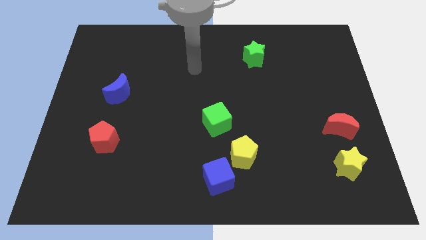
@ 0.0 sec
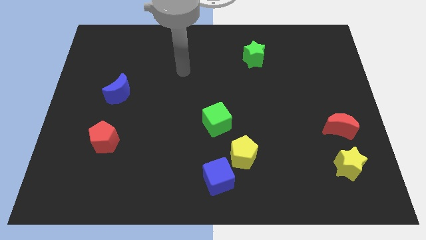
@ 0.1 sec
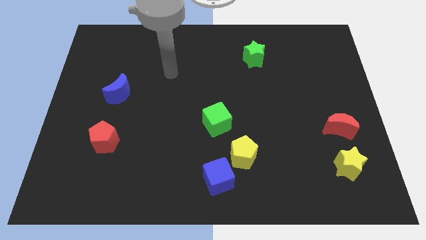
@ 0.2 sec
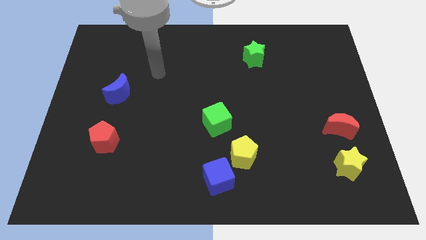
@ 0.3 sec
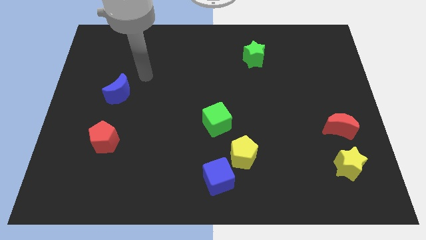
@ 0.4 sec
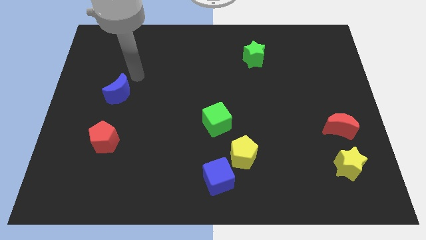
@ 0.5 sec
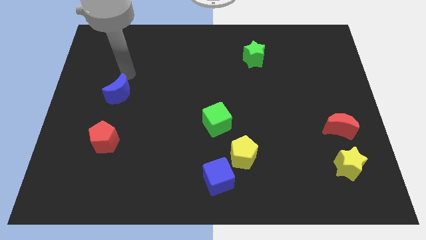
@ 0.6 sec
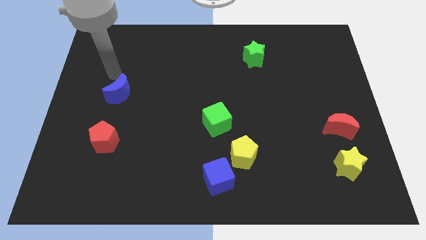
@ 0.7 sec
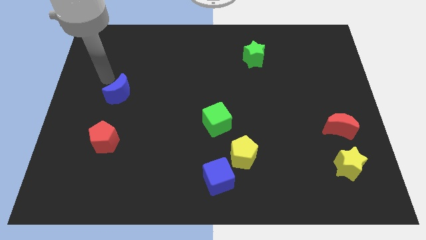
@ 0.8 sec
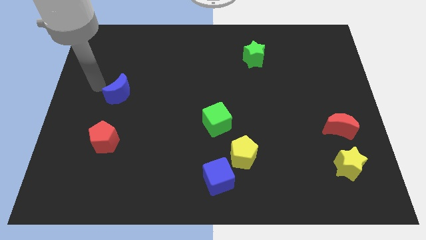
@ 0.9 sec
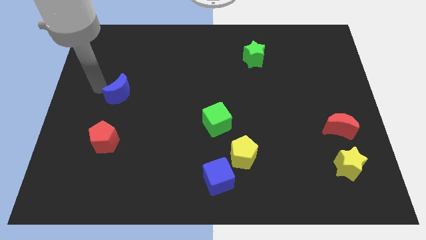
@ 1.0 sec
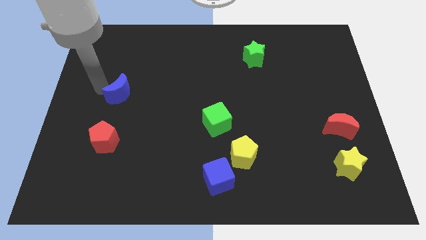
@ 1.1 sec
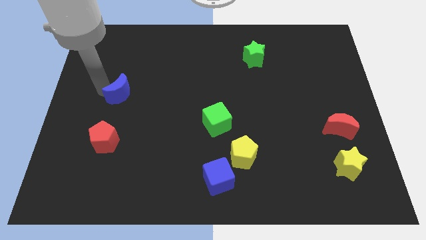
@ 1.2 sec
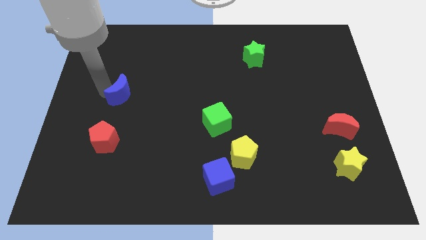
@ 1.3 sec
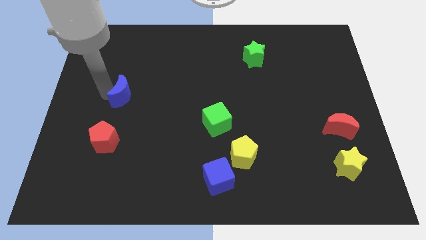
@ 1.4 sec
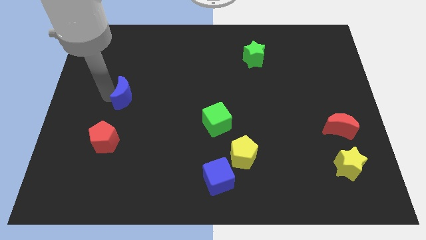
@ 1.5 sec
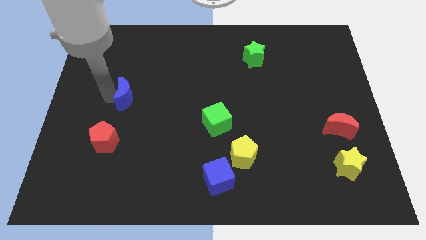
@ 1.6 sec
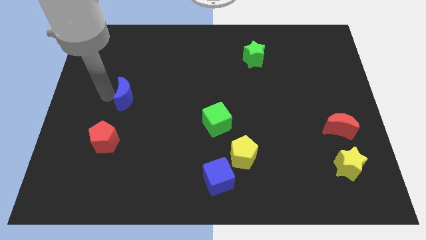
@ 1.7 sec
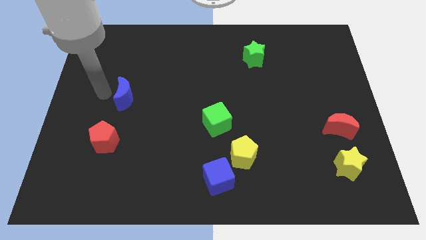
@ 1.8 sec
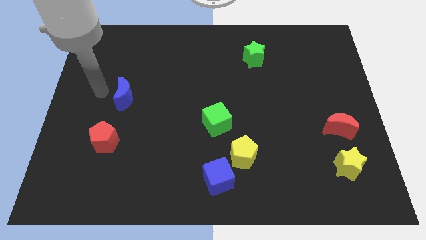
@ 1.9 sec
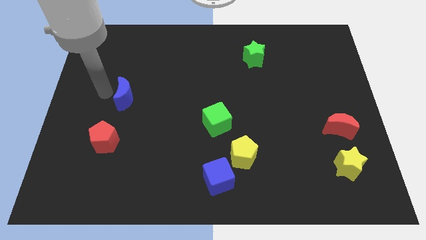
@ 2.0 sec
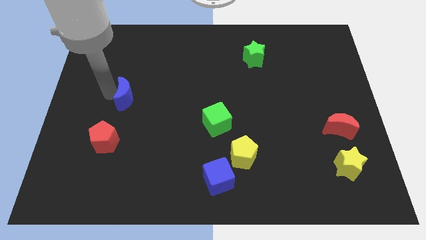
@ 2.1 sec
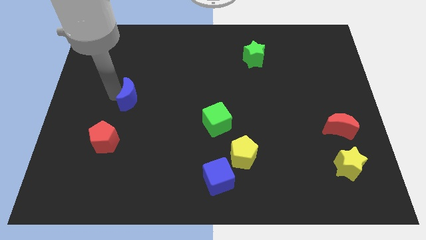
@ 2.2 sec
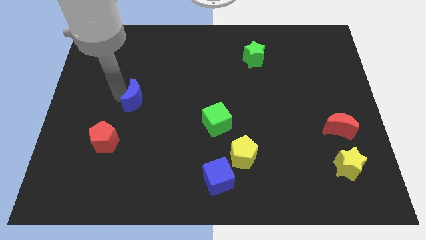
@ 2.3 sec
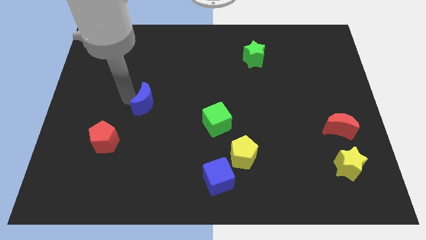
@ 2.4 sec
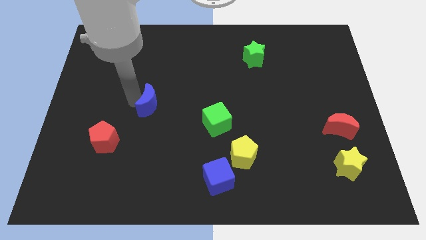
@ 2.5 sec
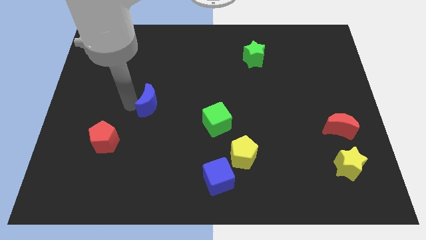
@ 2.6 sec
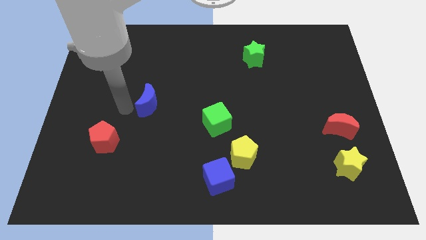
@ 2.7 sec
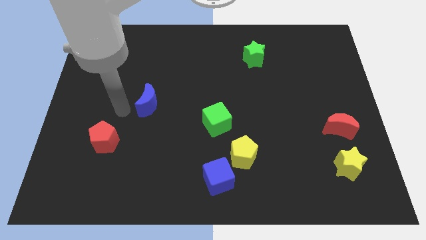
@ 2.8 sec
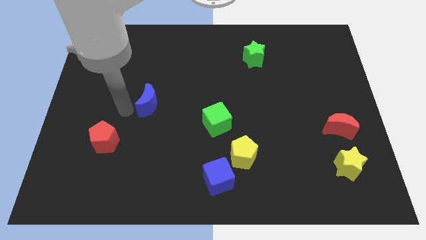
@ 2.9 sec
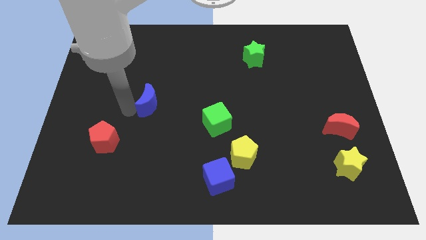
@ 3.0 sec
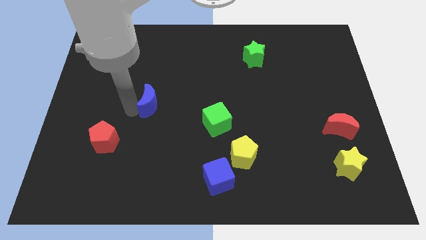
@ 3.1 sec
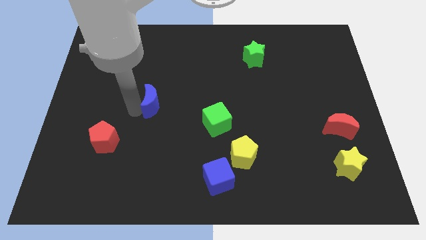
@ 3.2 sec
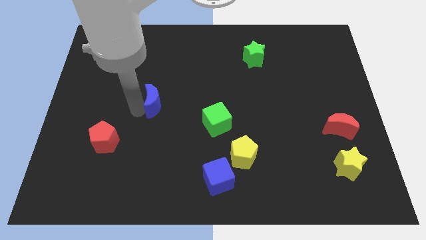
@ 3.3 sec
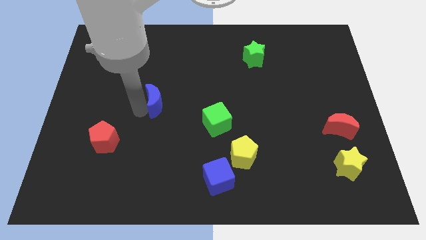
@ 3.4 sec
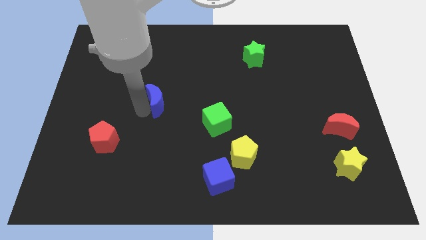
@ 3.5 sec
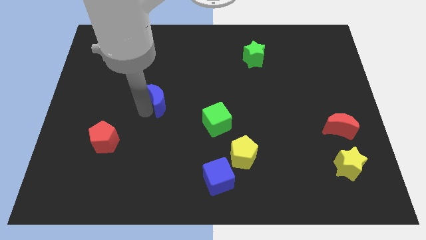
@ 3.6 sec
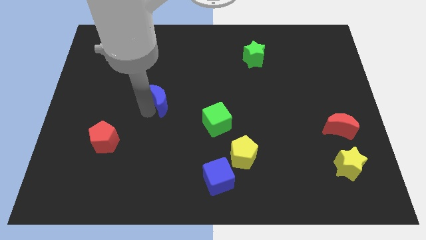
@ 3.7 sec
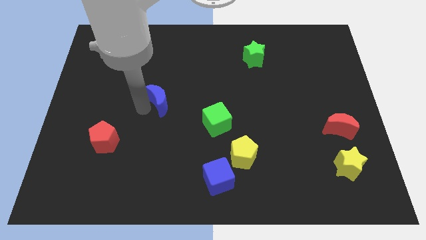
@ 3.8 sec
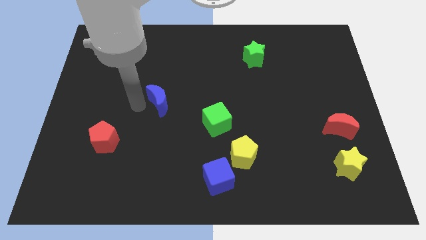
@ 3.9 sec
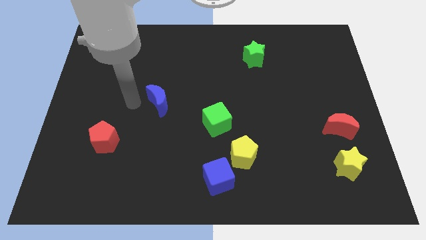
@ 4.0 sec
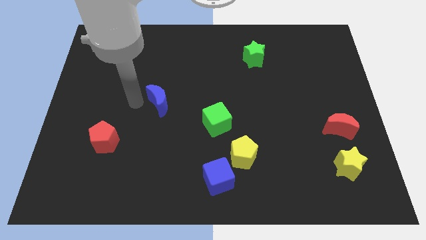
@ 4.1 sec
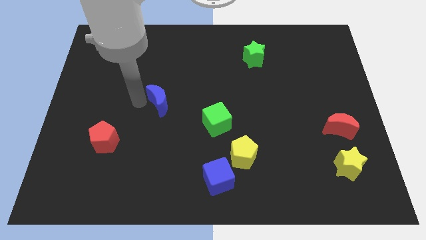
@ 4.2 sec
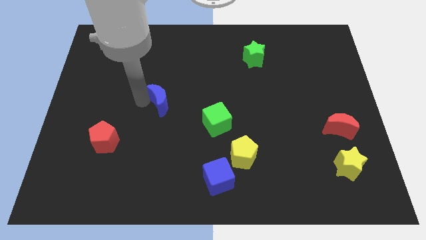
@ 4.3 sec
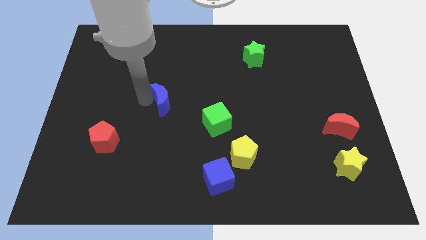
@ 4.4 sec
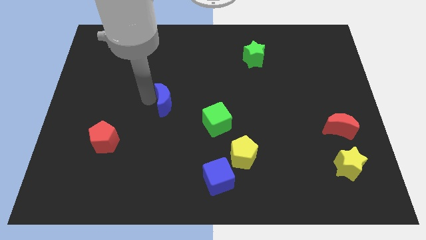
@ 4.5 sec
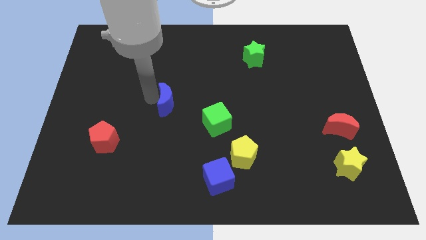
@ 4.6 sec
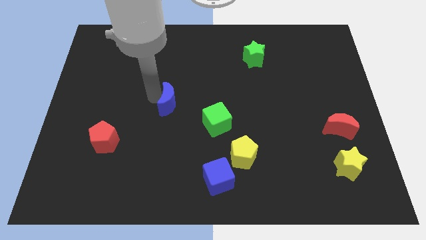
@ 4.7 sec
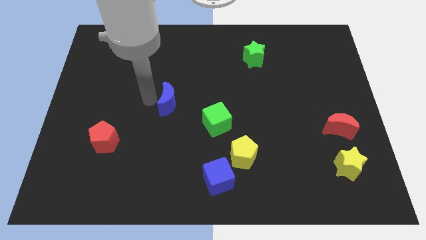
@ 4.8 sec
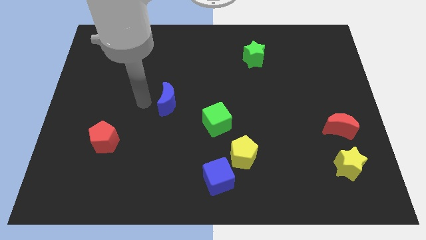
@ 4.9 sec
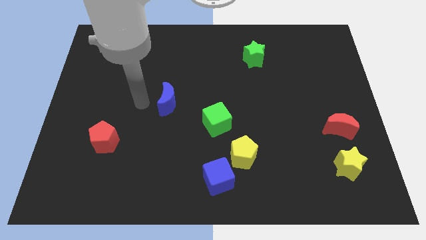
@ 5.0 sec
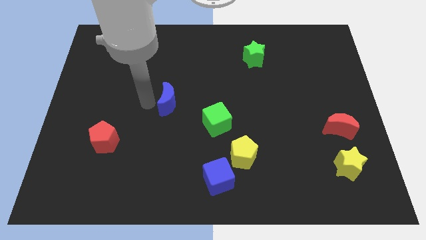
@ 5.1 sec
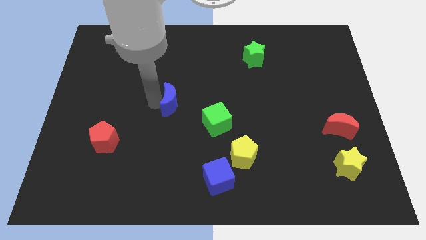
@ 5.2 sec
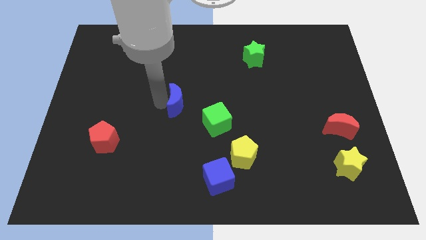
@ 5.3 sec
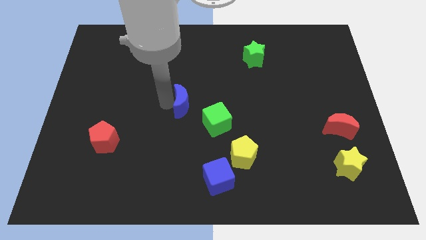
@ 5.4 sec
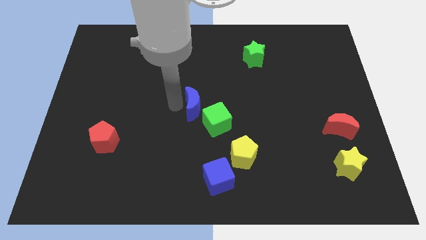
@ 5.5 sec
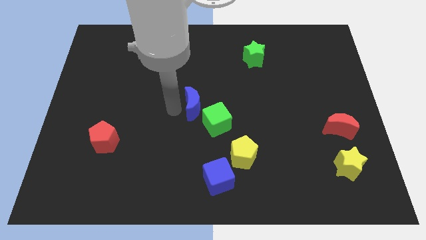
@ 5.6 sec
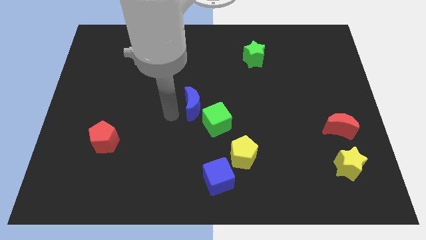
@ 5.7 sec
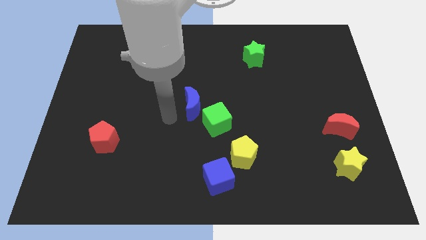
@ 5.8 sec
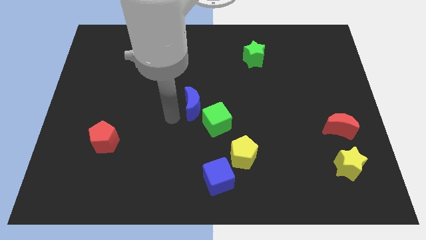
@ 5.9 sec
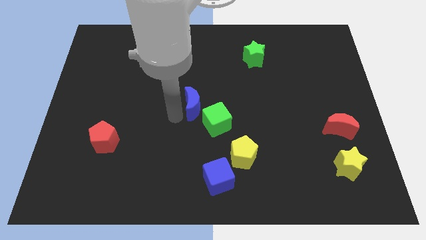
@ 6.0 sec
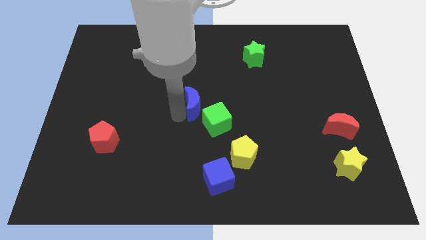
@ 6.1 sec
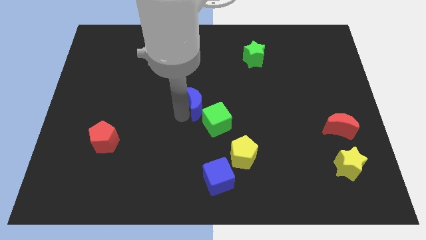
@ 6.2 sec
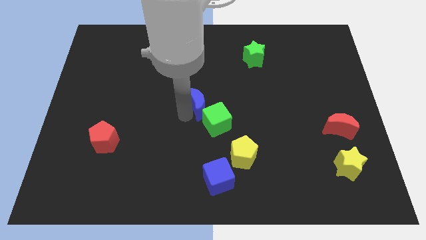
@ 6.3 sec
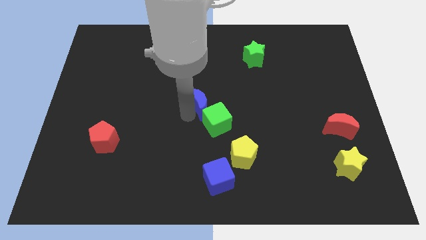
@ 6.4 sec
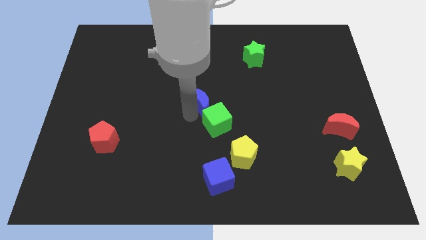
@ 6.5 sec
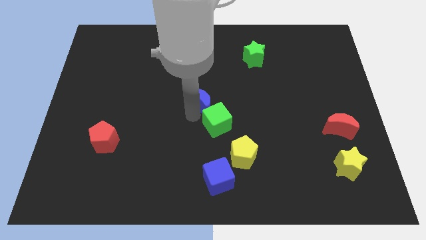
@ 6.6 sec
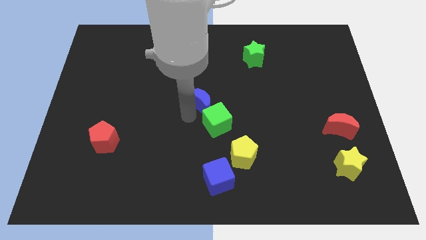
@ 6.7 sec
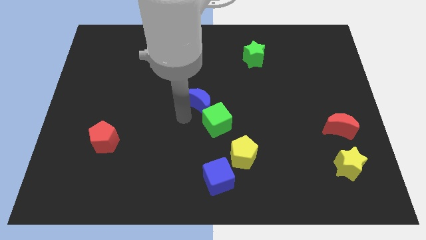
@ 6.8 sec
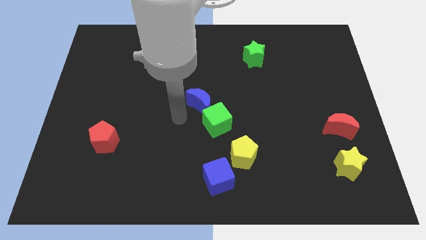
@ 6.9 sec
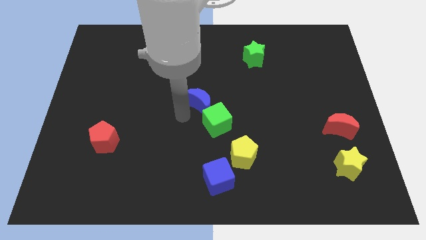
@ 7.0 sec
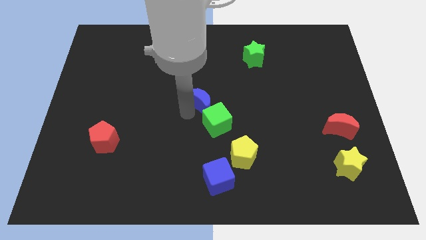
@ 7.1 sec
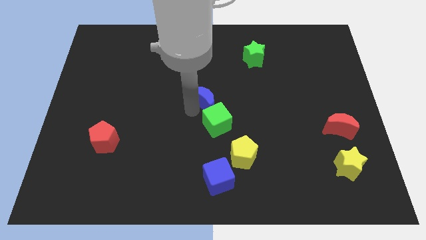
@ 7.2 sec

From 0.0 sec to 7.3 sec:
push the blue moon to the right
